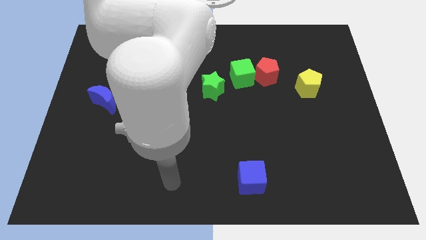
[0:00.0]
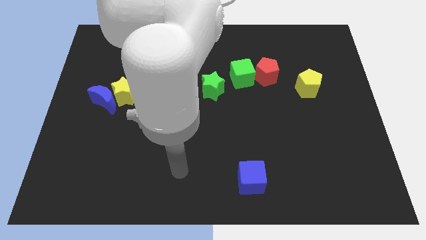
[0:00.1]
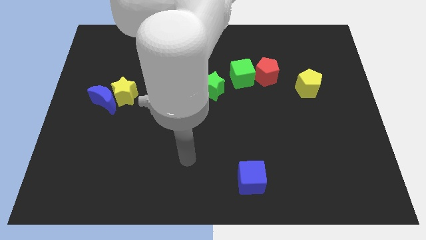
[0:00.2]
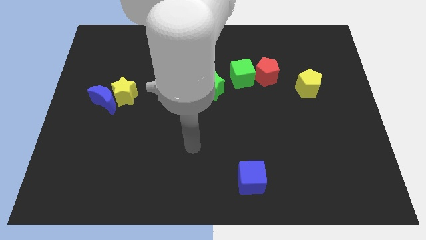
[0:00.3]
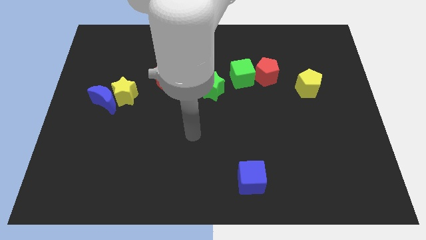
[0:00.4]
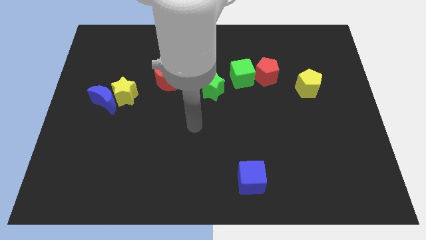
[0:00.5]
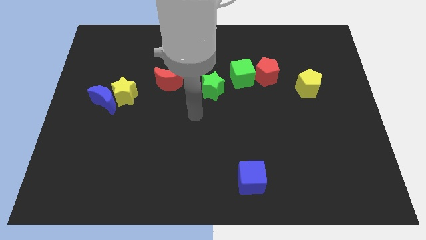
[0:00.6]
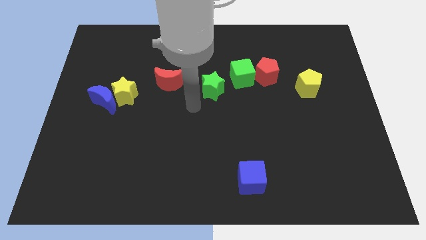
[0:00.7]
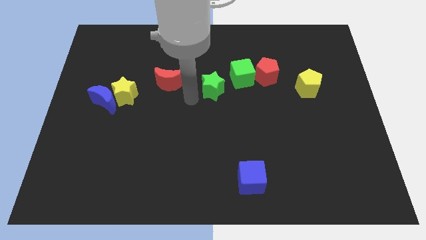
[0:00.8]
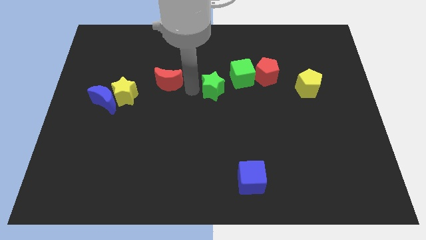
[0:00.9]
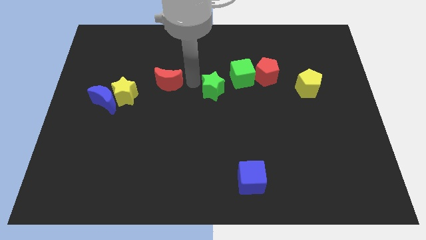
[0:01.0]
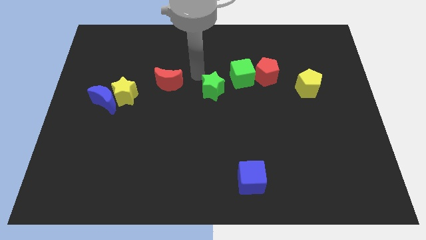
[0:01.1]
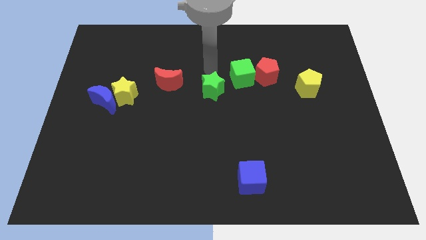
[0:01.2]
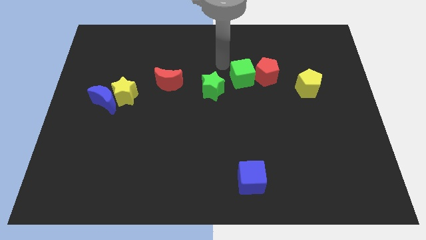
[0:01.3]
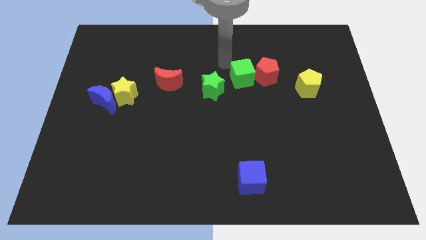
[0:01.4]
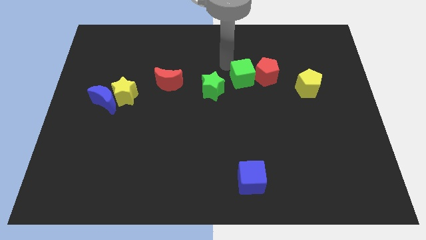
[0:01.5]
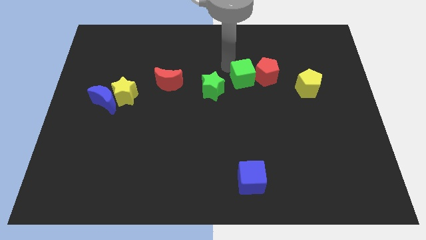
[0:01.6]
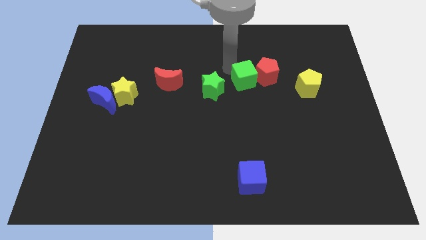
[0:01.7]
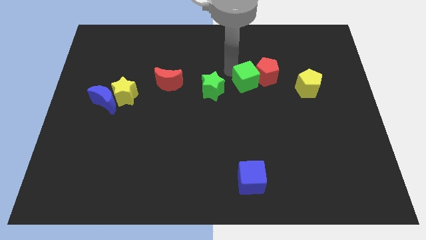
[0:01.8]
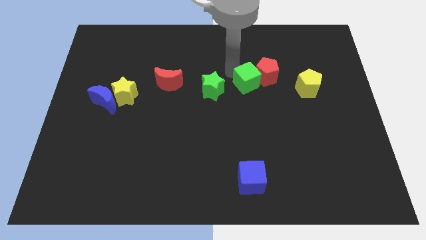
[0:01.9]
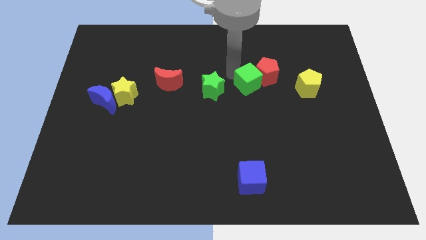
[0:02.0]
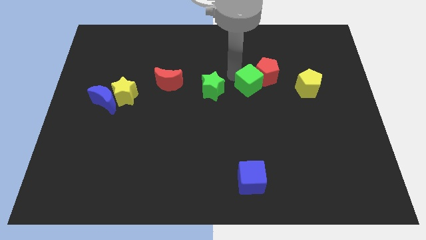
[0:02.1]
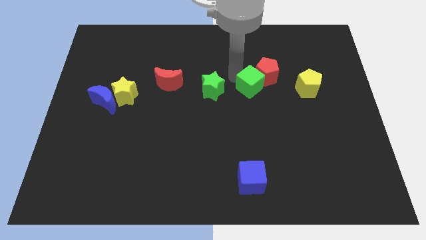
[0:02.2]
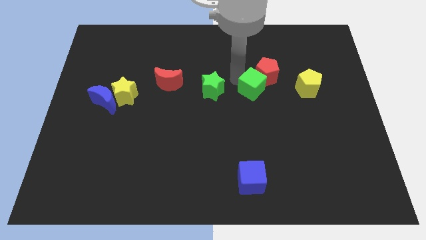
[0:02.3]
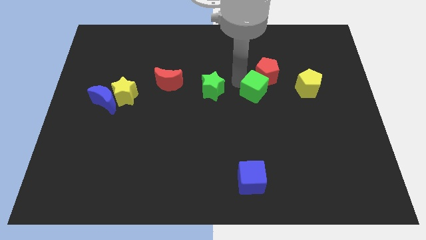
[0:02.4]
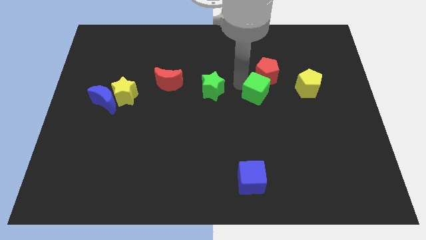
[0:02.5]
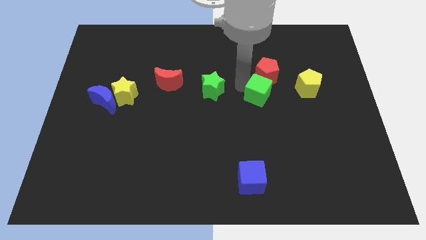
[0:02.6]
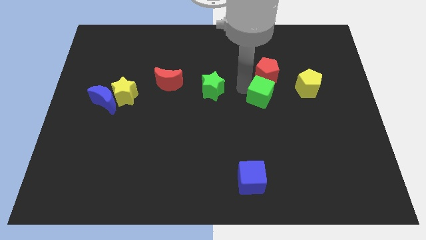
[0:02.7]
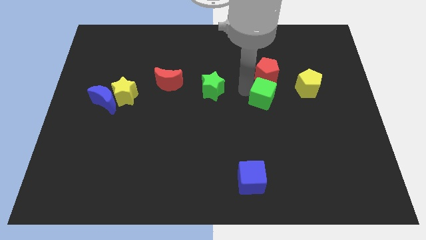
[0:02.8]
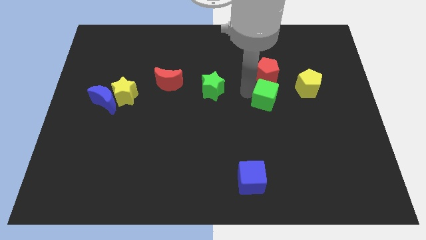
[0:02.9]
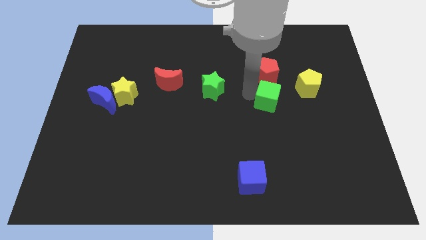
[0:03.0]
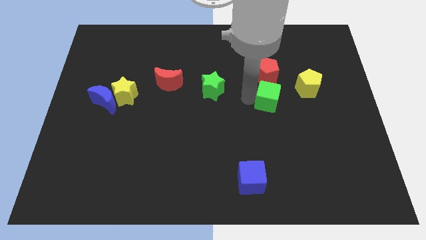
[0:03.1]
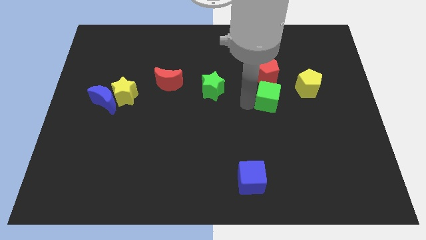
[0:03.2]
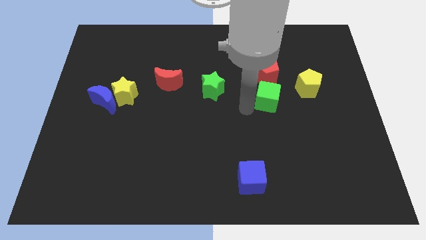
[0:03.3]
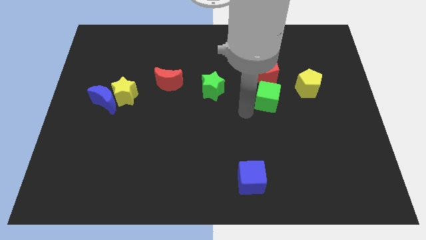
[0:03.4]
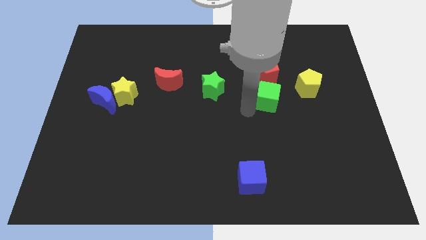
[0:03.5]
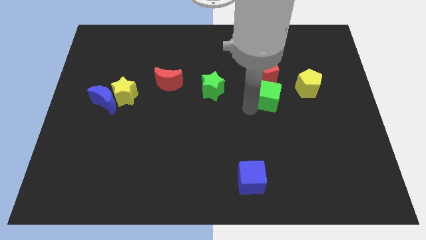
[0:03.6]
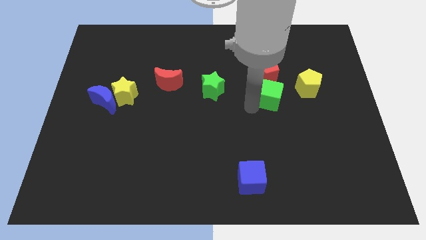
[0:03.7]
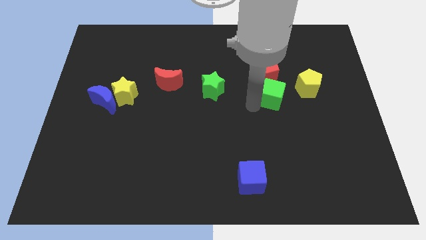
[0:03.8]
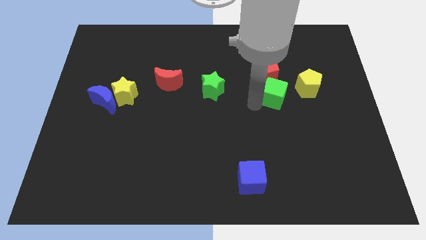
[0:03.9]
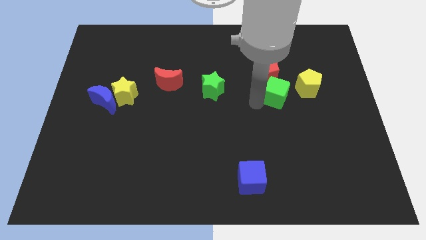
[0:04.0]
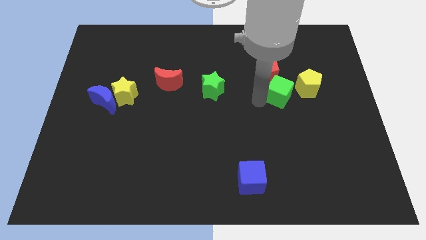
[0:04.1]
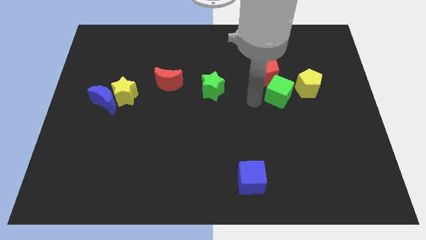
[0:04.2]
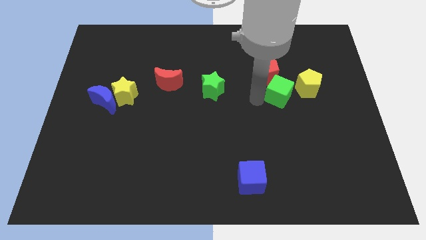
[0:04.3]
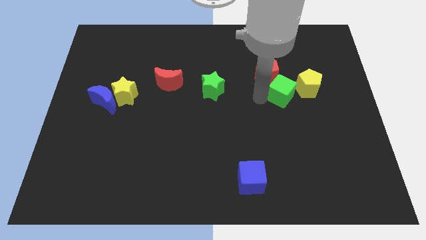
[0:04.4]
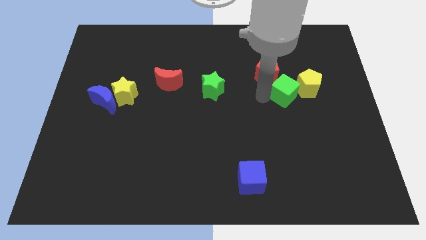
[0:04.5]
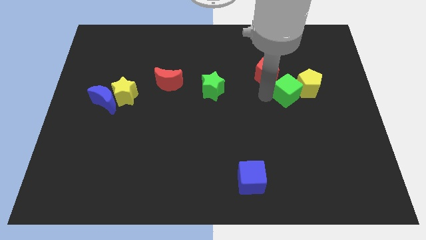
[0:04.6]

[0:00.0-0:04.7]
put the green cube next to the yellow pentagon

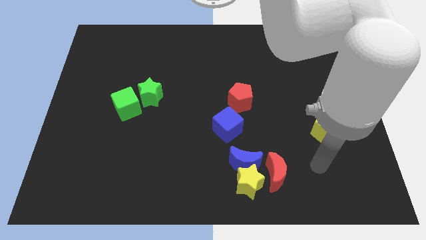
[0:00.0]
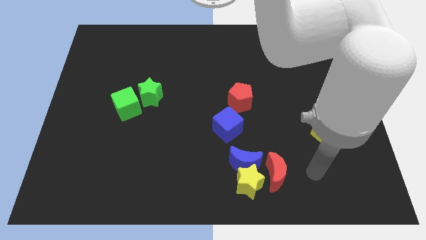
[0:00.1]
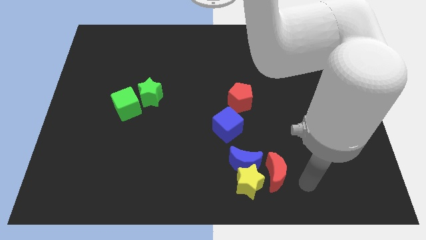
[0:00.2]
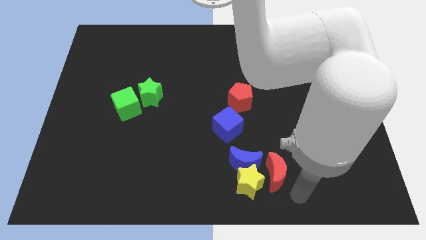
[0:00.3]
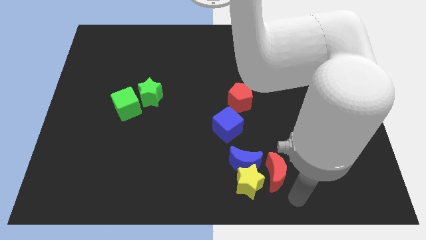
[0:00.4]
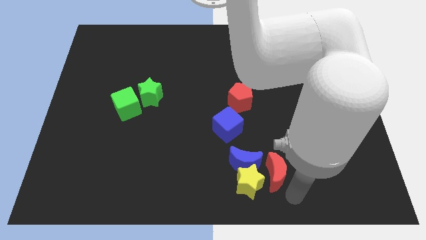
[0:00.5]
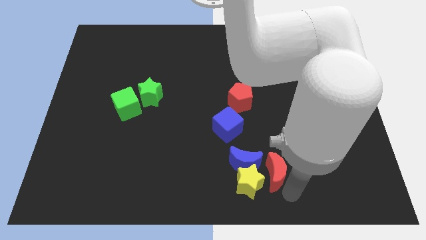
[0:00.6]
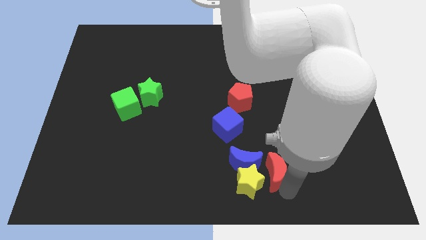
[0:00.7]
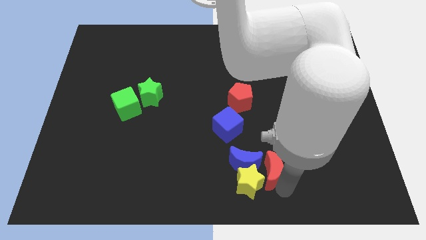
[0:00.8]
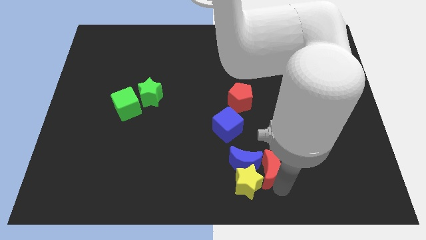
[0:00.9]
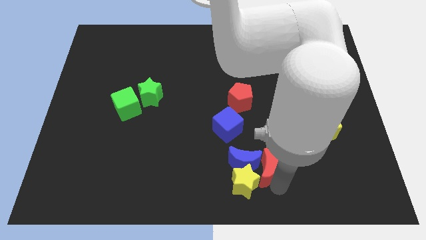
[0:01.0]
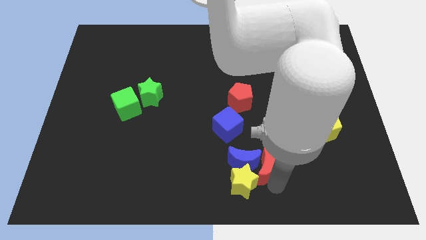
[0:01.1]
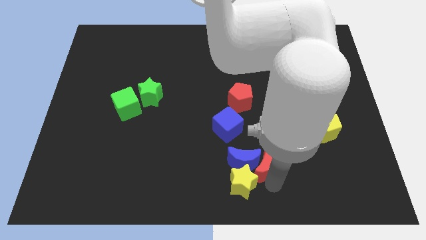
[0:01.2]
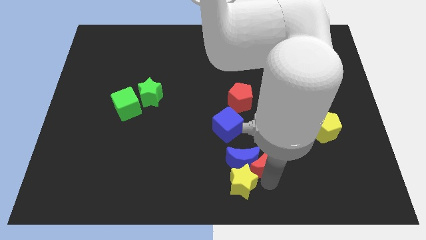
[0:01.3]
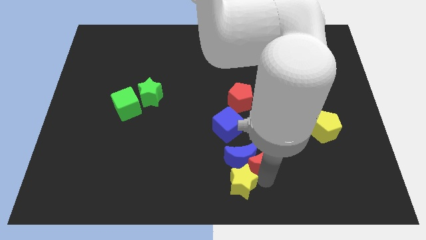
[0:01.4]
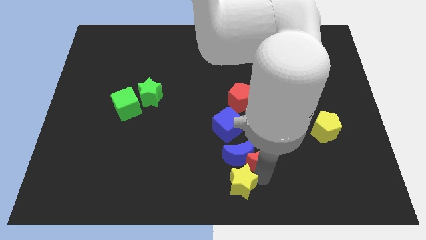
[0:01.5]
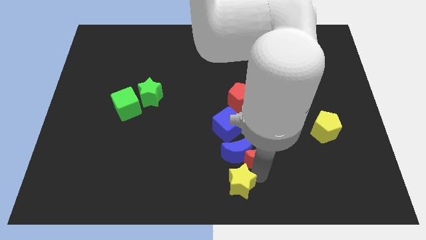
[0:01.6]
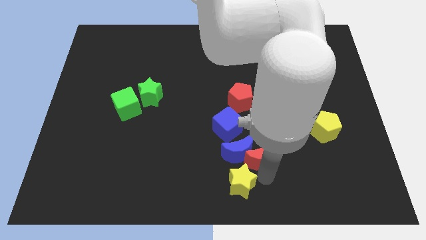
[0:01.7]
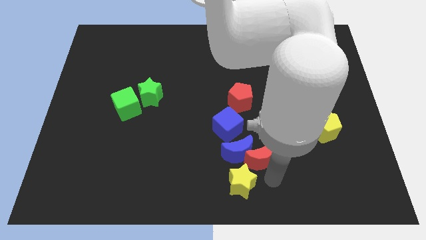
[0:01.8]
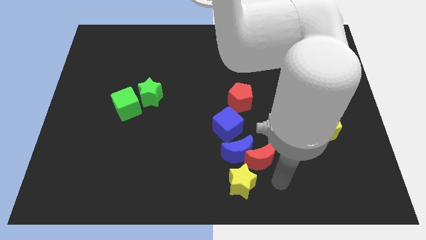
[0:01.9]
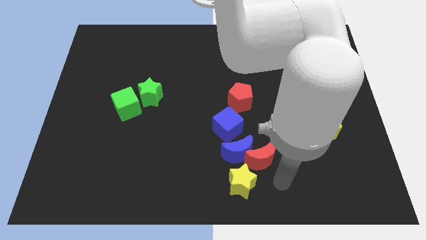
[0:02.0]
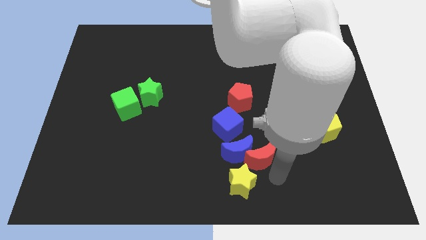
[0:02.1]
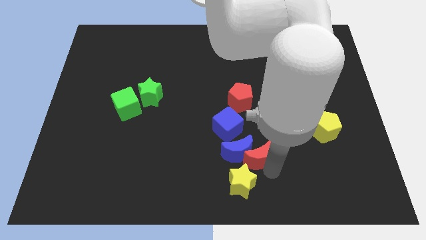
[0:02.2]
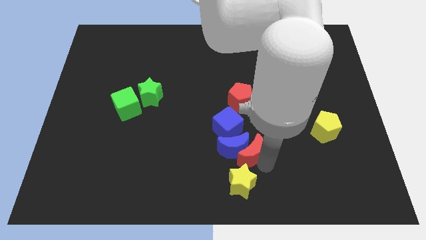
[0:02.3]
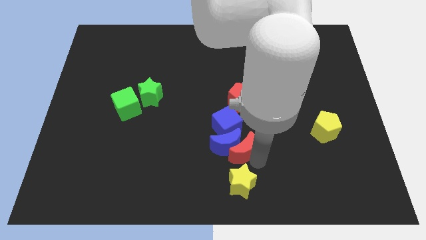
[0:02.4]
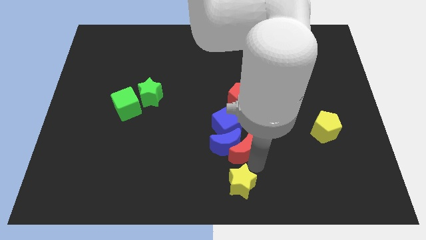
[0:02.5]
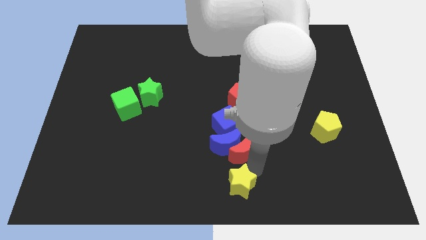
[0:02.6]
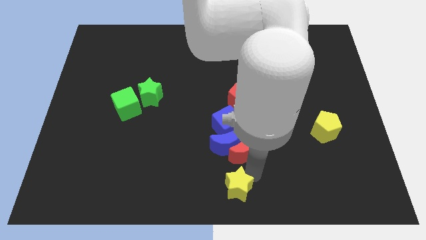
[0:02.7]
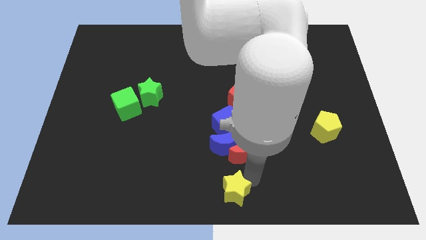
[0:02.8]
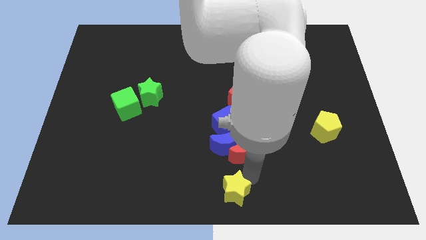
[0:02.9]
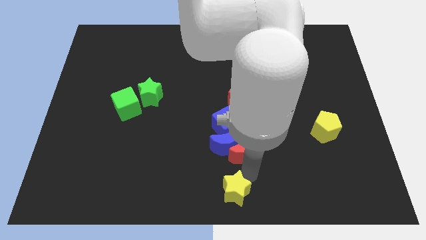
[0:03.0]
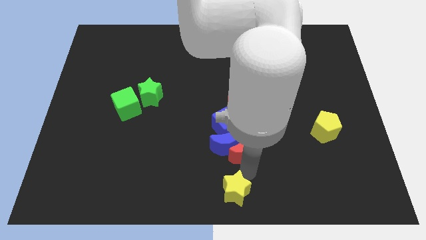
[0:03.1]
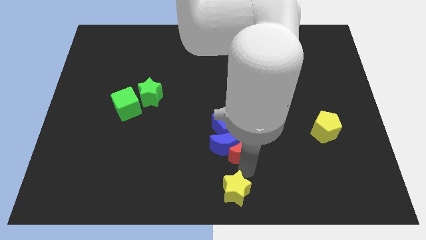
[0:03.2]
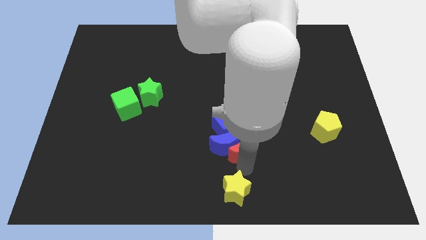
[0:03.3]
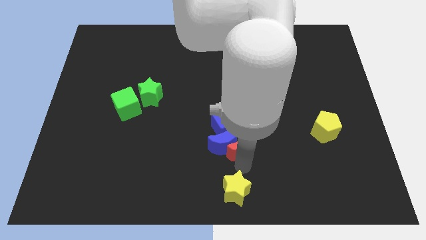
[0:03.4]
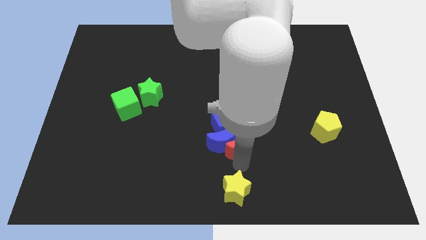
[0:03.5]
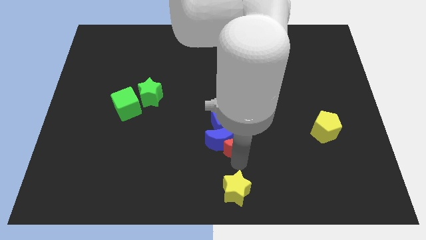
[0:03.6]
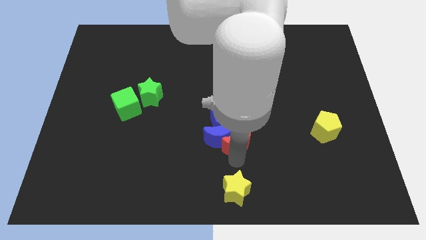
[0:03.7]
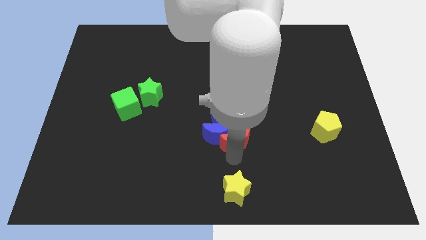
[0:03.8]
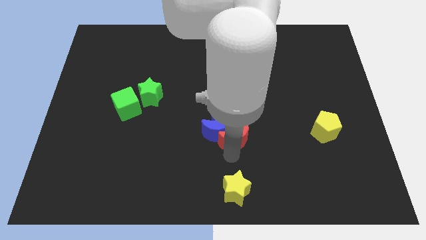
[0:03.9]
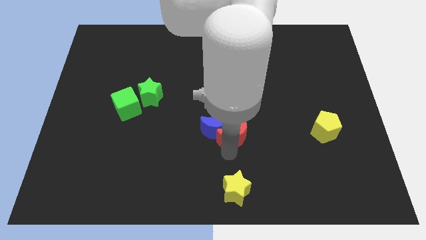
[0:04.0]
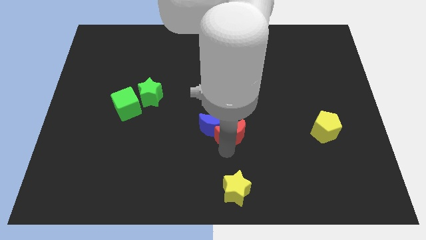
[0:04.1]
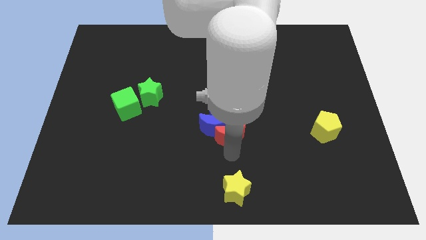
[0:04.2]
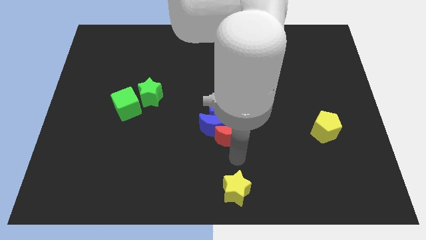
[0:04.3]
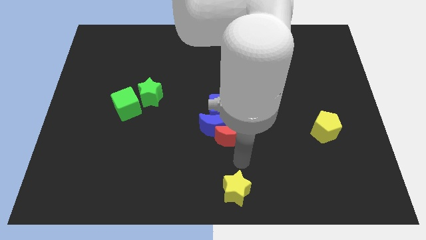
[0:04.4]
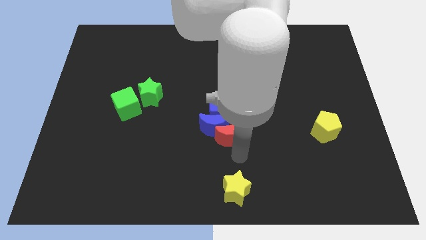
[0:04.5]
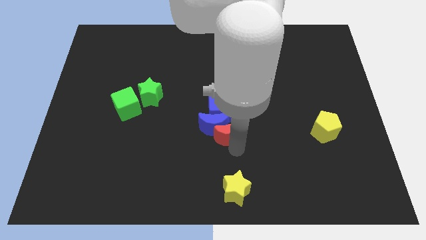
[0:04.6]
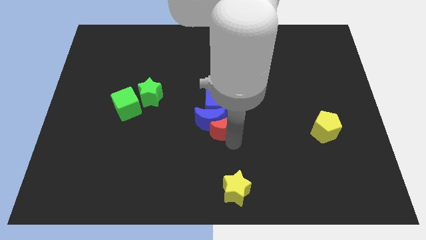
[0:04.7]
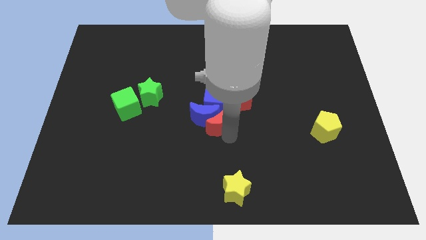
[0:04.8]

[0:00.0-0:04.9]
move the red moon to the blue cube
